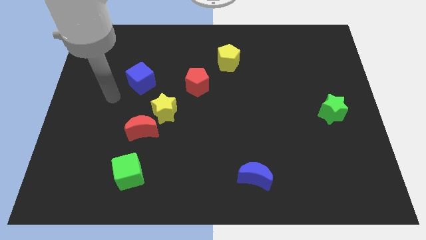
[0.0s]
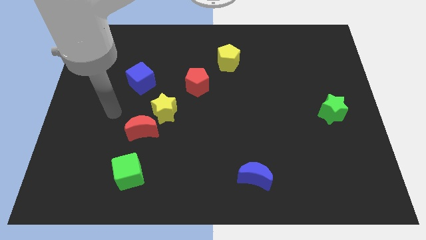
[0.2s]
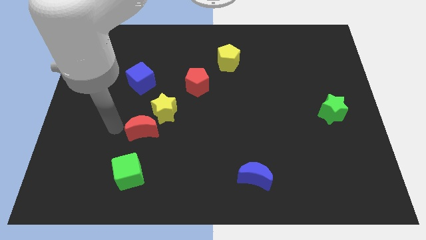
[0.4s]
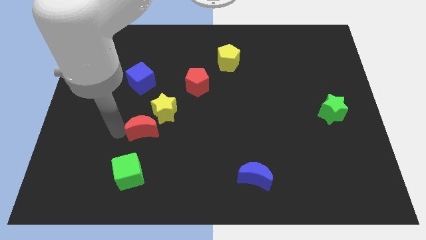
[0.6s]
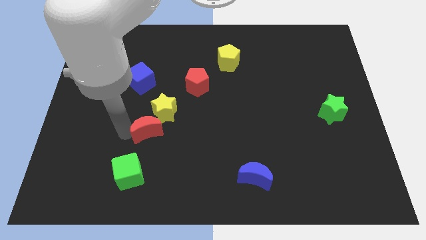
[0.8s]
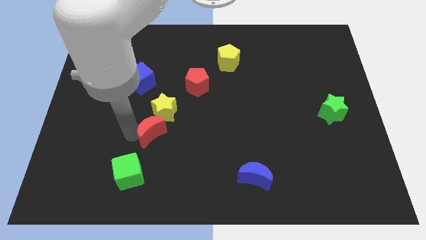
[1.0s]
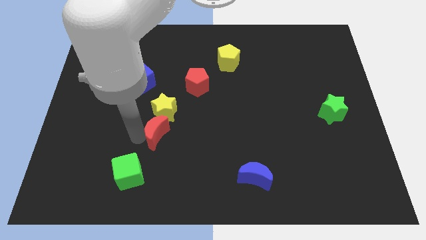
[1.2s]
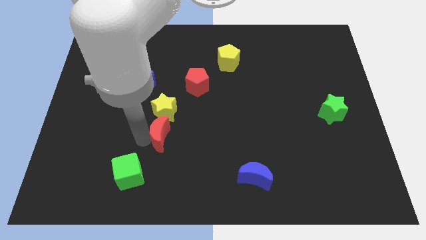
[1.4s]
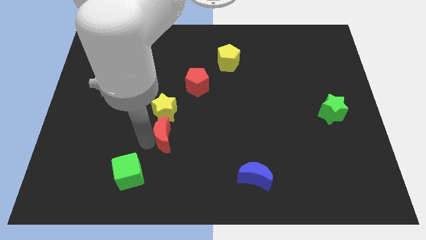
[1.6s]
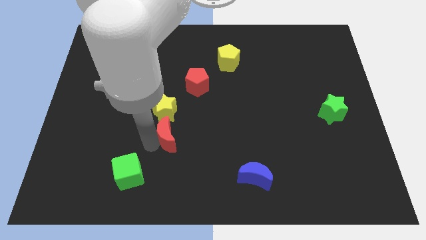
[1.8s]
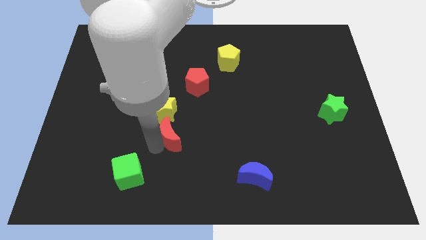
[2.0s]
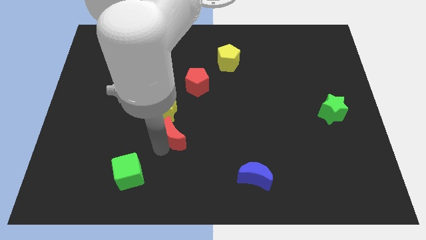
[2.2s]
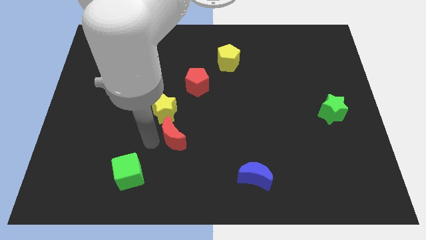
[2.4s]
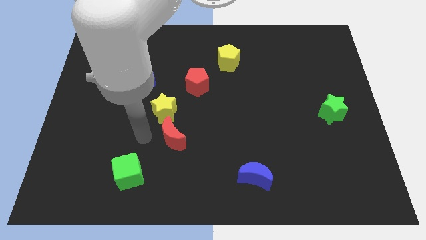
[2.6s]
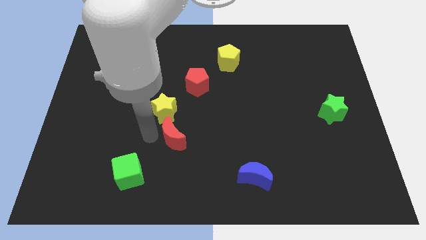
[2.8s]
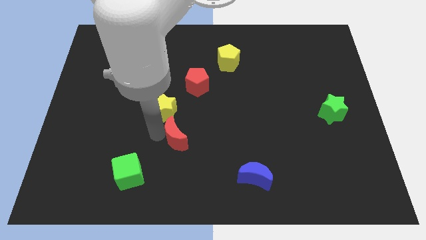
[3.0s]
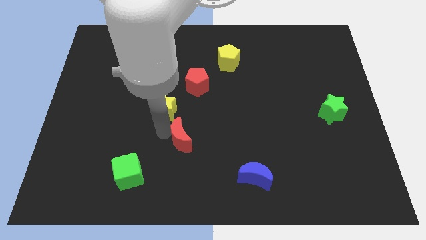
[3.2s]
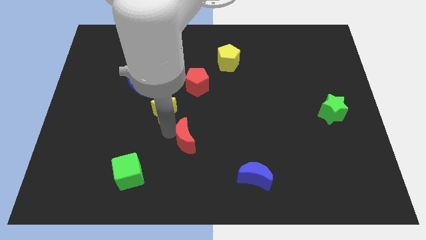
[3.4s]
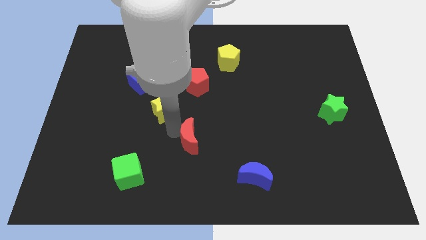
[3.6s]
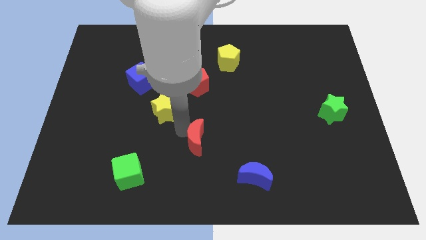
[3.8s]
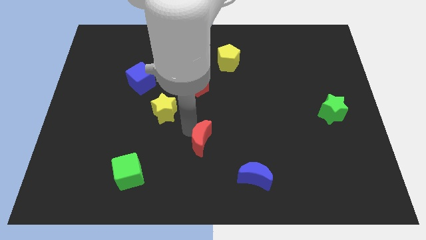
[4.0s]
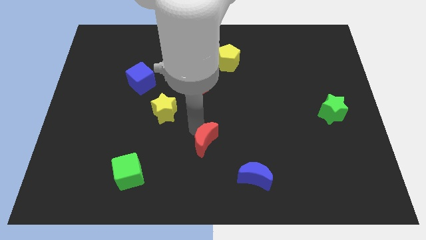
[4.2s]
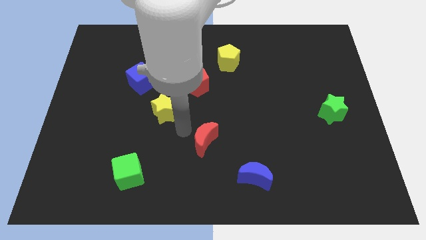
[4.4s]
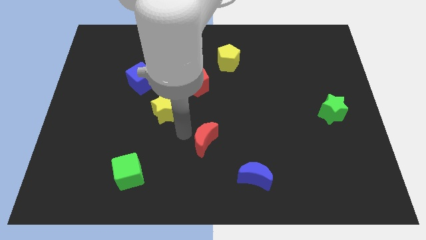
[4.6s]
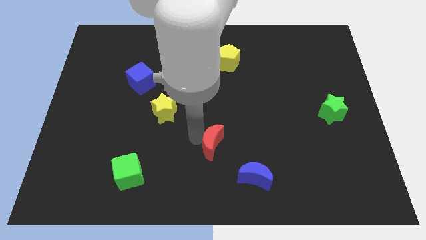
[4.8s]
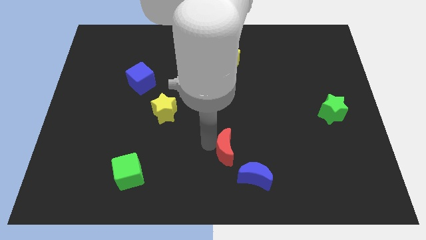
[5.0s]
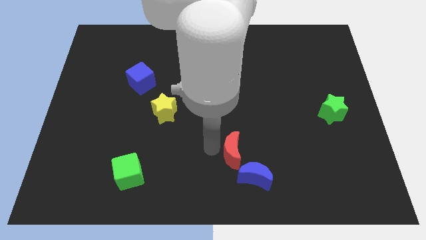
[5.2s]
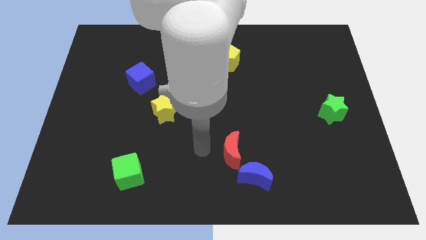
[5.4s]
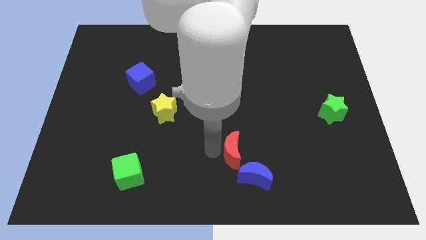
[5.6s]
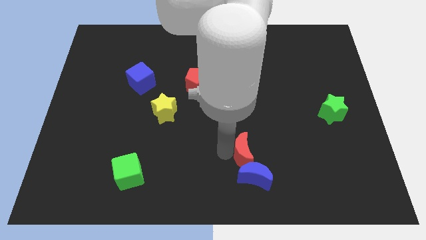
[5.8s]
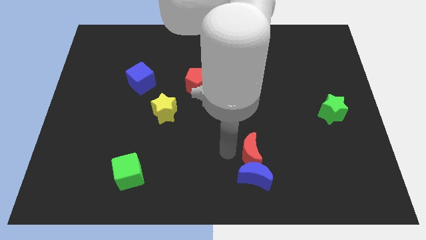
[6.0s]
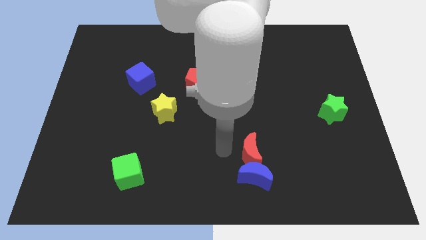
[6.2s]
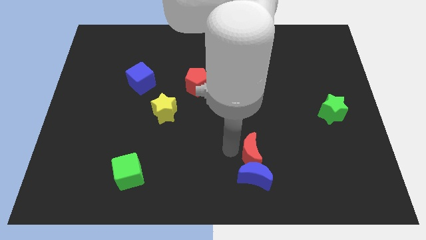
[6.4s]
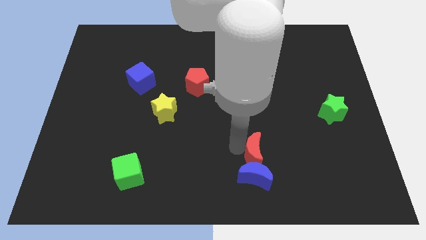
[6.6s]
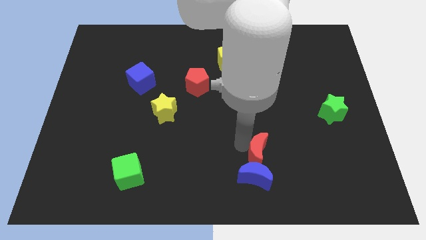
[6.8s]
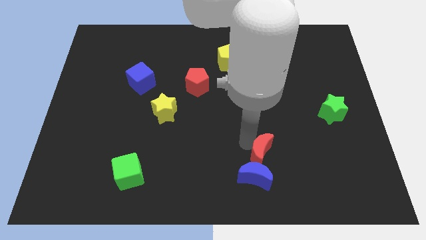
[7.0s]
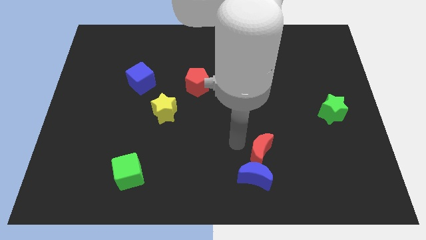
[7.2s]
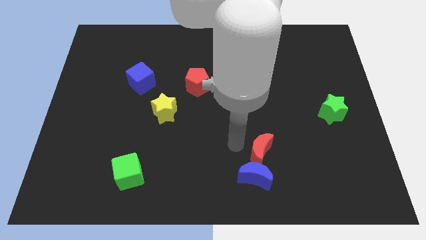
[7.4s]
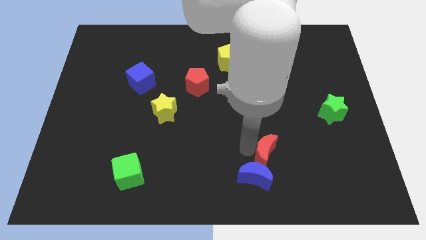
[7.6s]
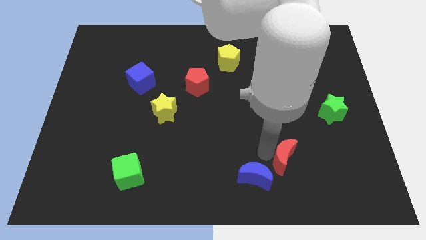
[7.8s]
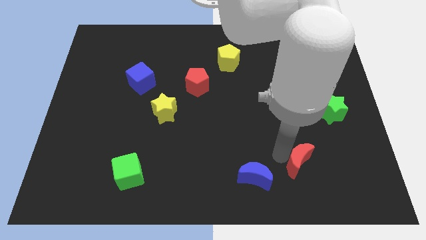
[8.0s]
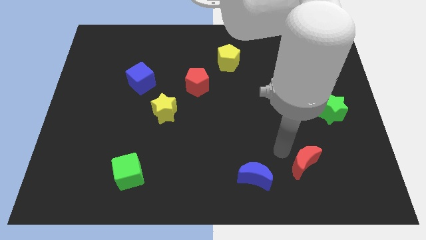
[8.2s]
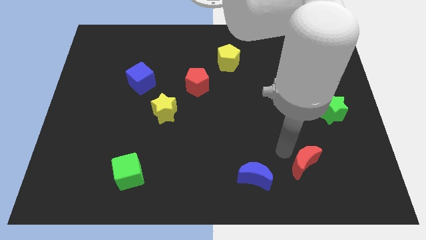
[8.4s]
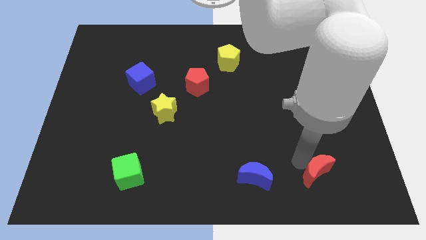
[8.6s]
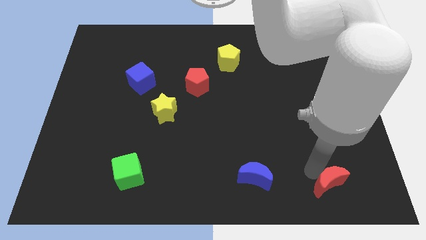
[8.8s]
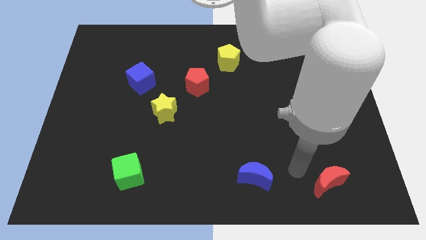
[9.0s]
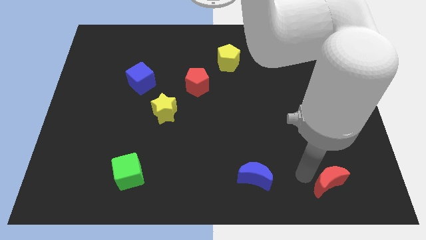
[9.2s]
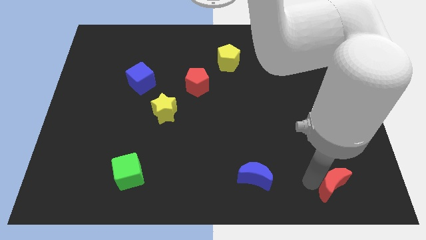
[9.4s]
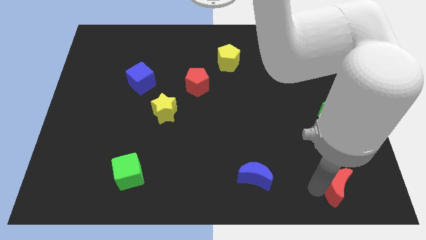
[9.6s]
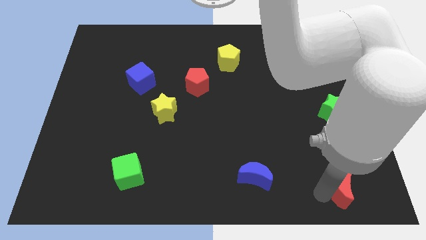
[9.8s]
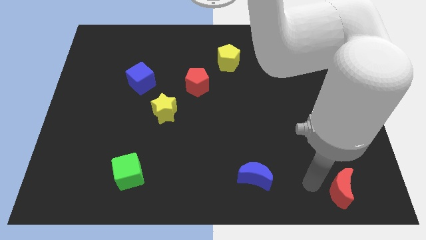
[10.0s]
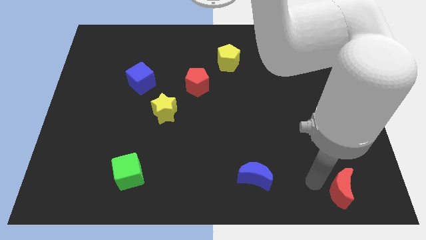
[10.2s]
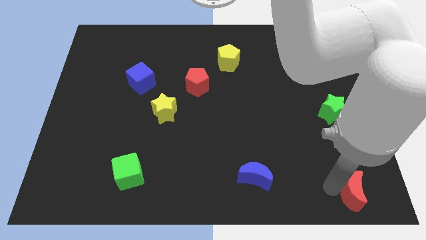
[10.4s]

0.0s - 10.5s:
push the red moon to the bottom right of the board

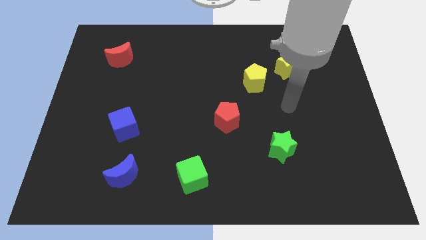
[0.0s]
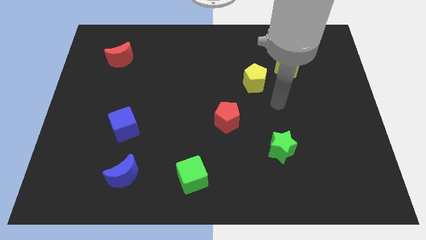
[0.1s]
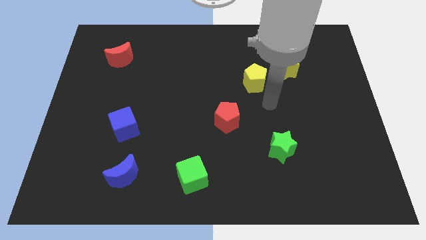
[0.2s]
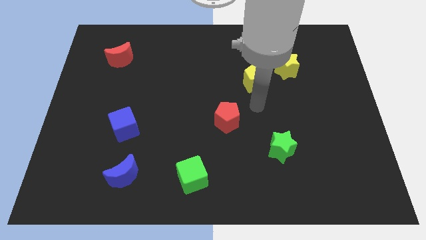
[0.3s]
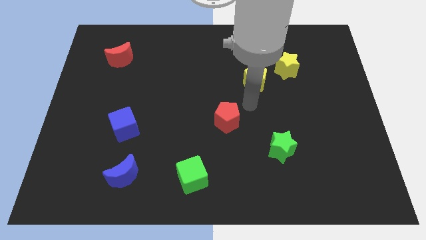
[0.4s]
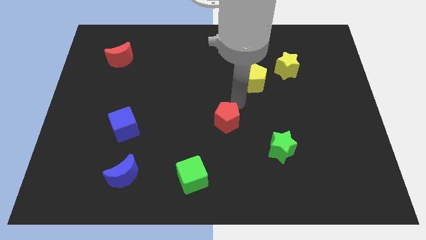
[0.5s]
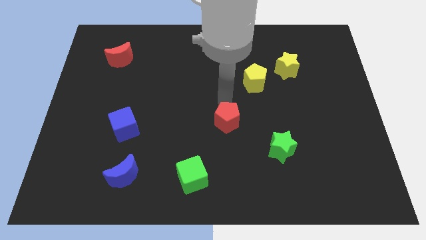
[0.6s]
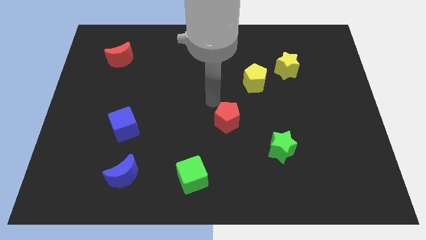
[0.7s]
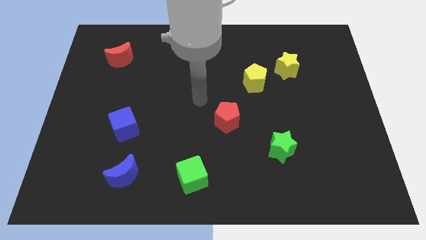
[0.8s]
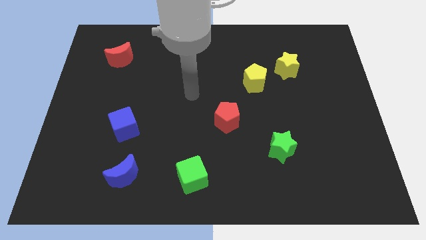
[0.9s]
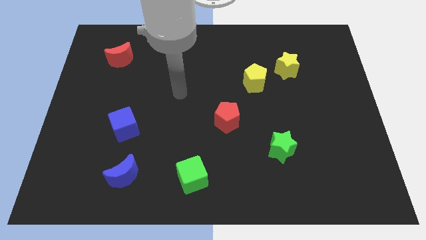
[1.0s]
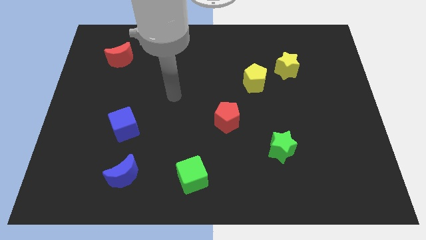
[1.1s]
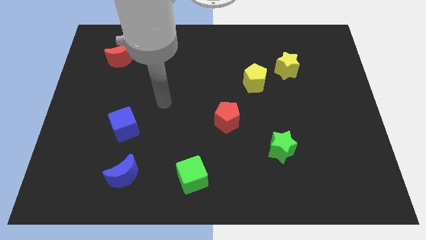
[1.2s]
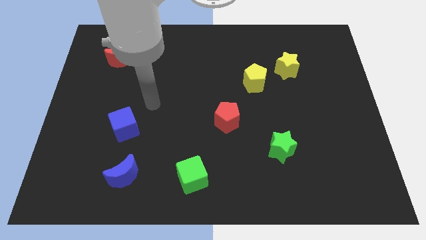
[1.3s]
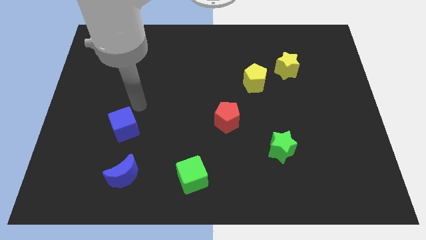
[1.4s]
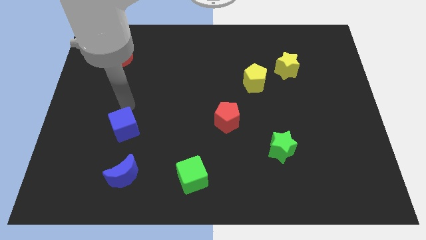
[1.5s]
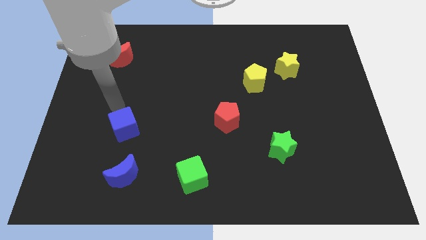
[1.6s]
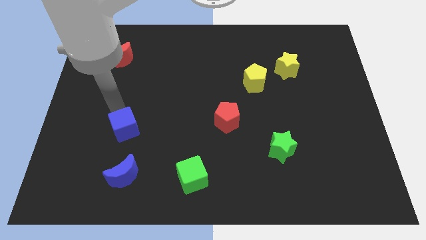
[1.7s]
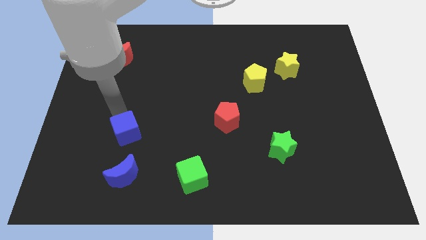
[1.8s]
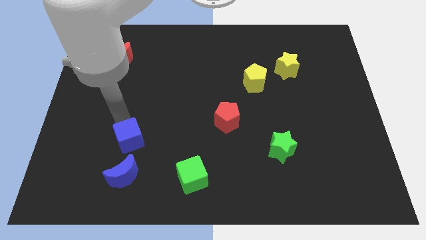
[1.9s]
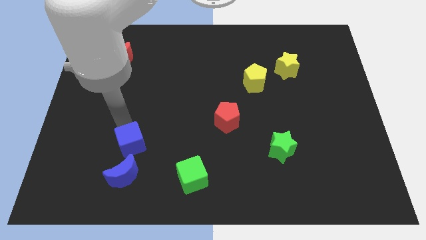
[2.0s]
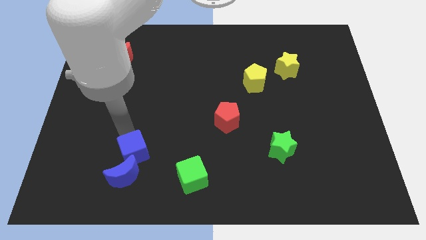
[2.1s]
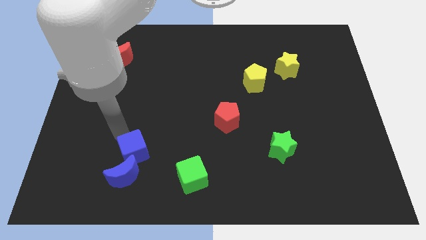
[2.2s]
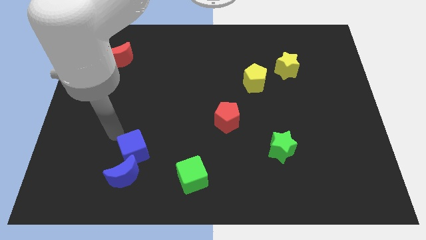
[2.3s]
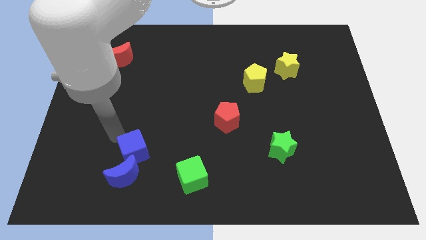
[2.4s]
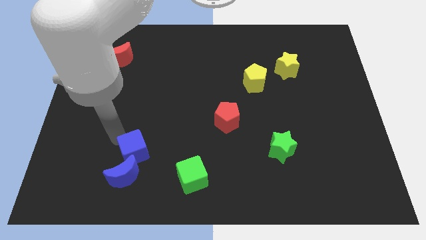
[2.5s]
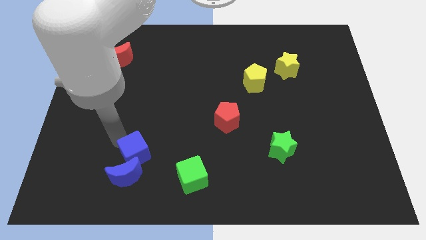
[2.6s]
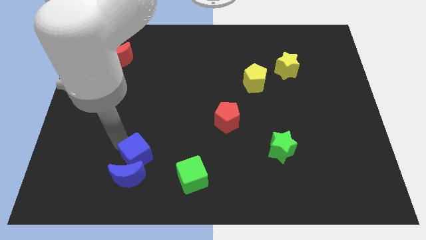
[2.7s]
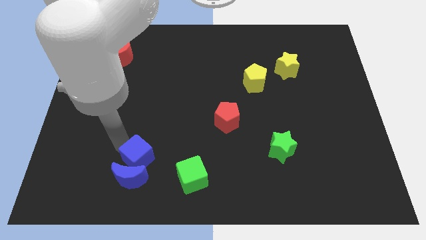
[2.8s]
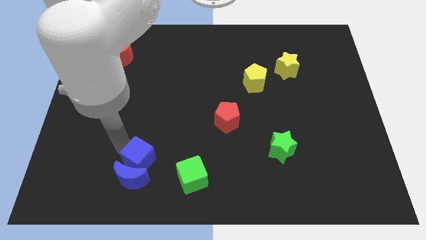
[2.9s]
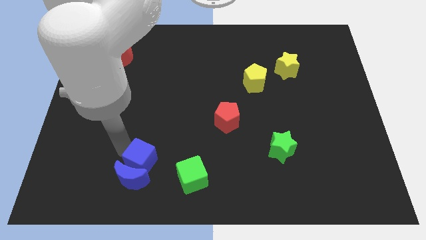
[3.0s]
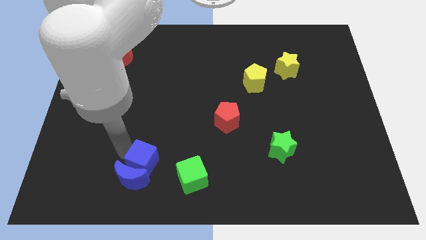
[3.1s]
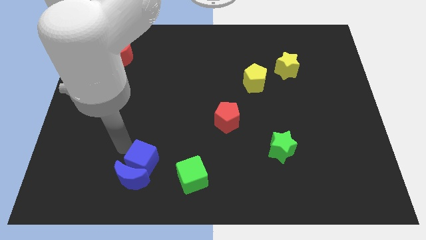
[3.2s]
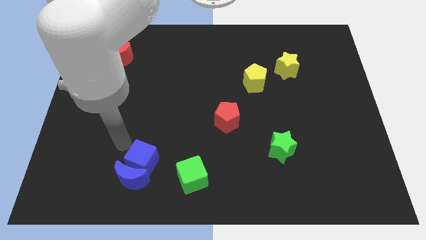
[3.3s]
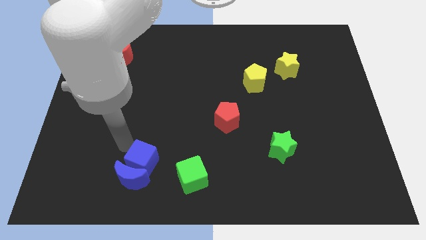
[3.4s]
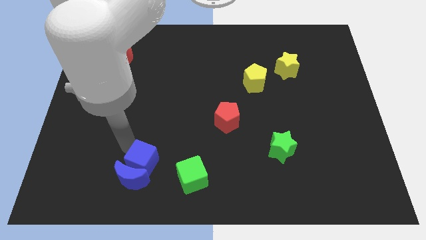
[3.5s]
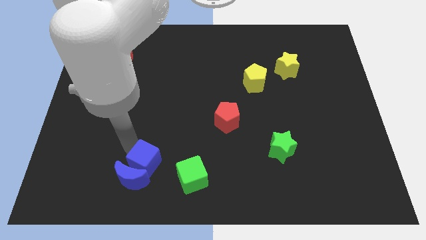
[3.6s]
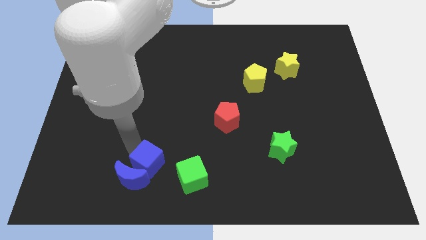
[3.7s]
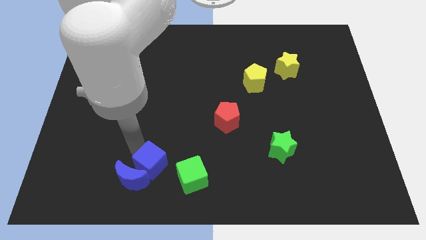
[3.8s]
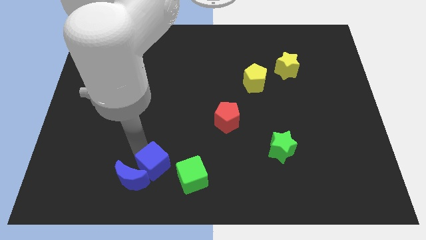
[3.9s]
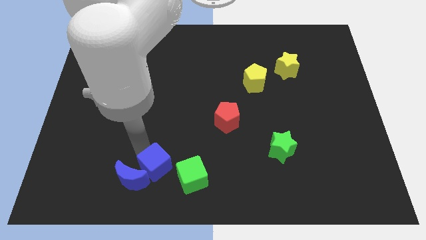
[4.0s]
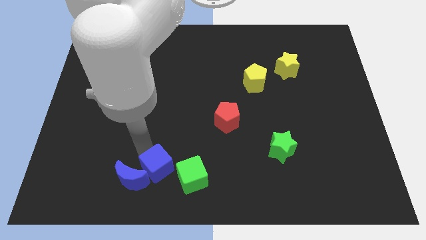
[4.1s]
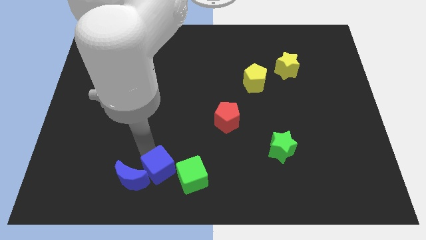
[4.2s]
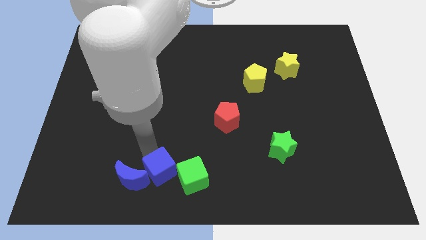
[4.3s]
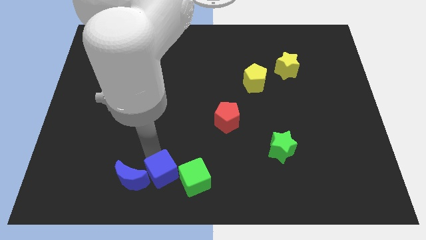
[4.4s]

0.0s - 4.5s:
slide the blue cube to the bottom
